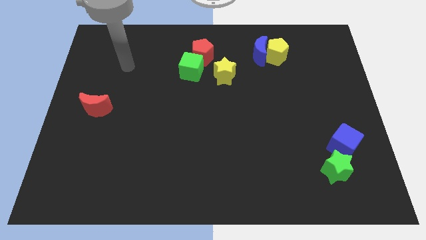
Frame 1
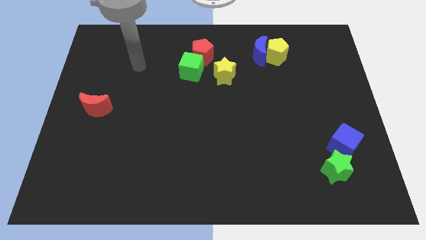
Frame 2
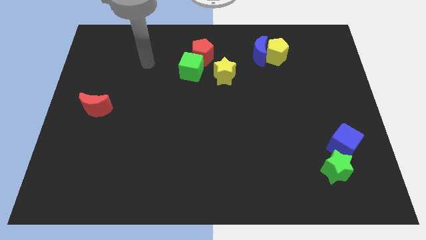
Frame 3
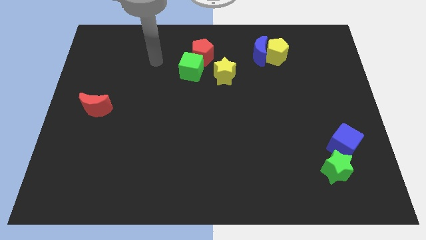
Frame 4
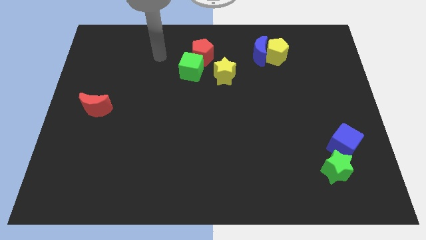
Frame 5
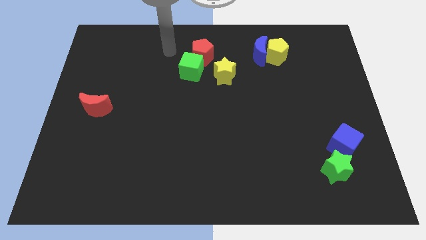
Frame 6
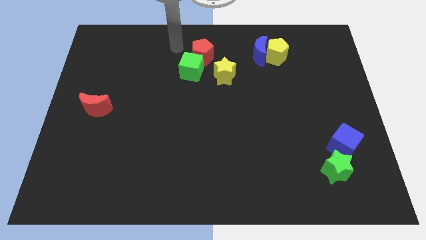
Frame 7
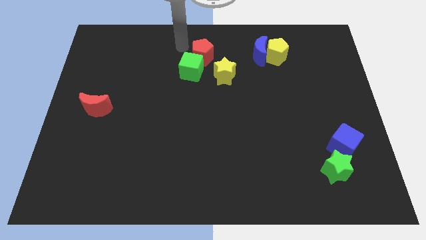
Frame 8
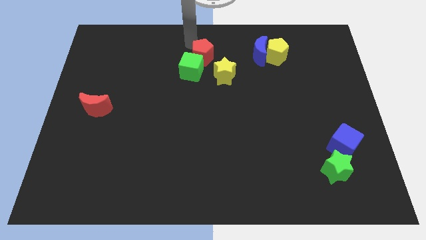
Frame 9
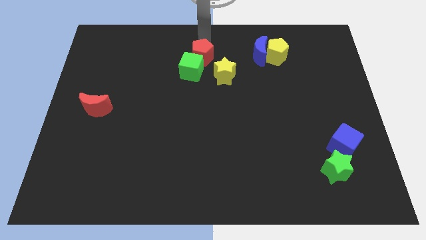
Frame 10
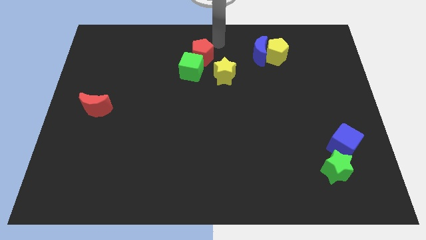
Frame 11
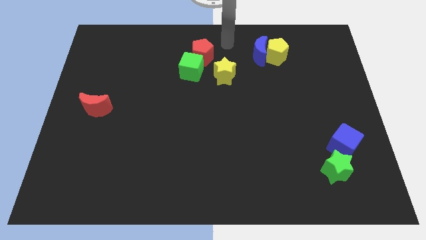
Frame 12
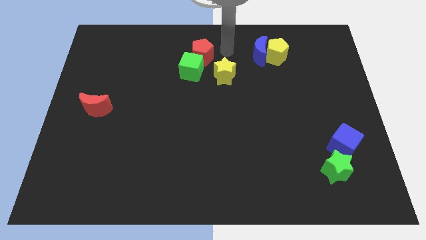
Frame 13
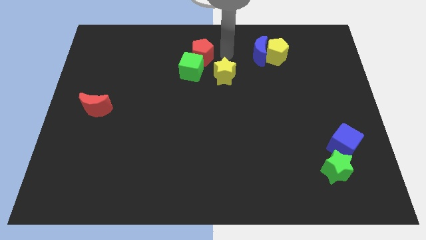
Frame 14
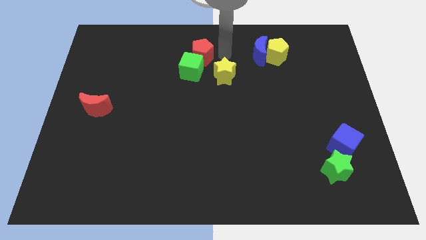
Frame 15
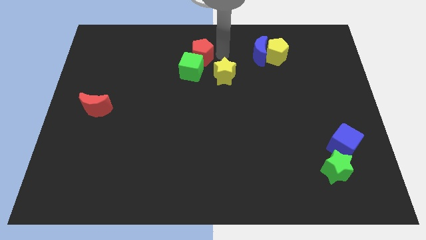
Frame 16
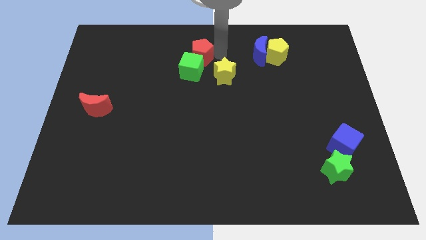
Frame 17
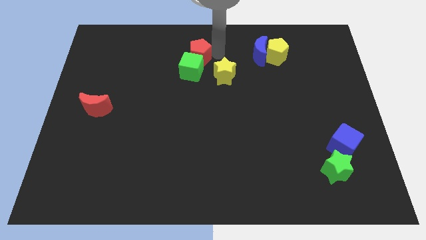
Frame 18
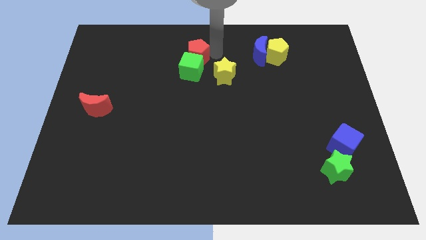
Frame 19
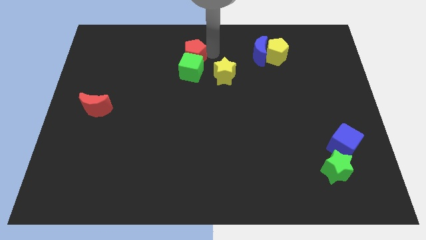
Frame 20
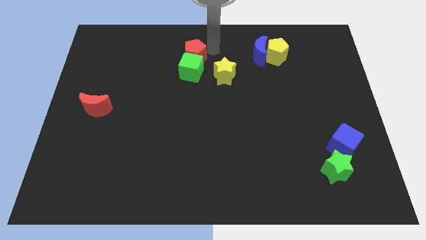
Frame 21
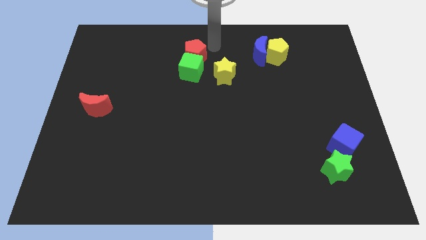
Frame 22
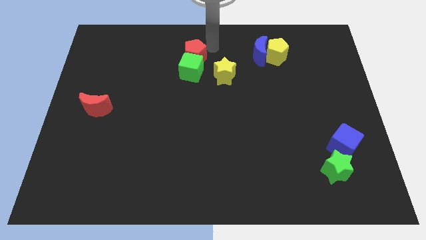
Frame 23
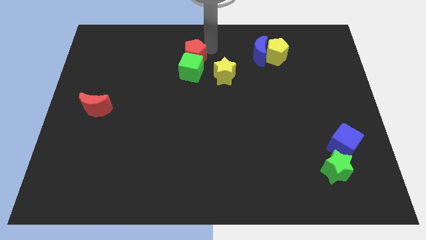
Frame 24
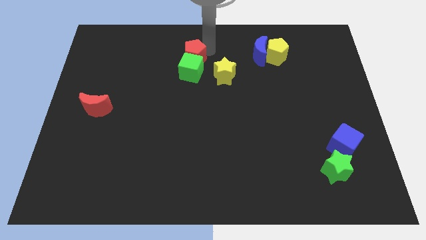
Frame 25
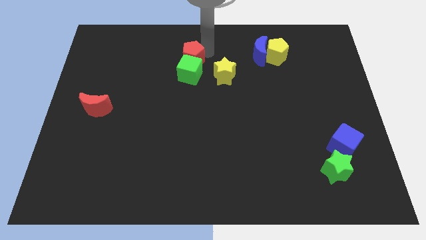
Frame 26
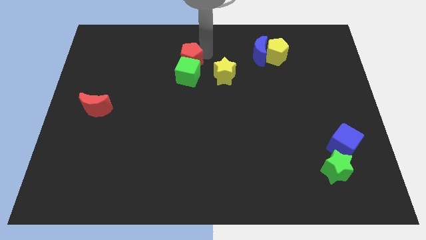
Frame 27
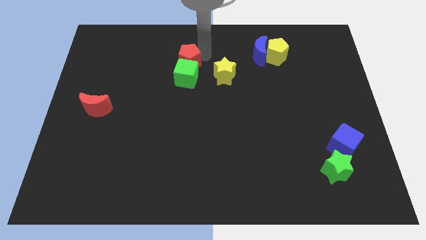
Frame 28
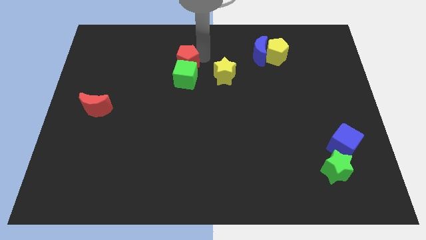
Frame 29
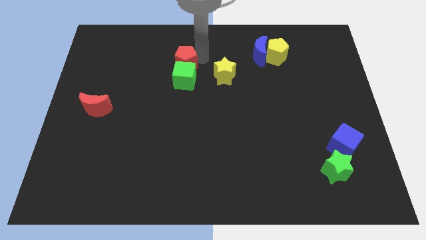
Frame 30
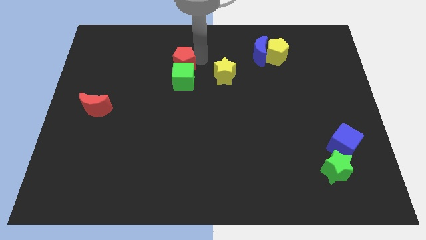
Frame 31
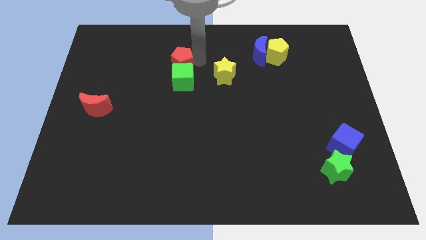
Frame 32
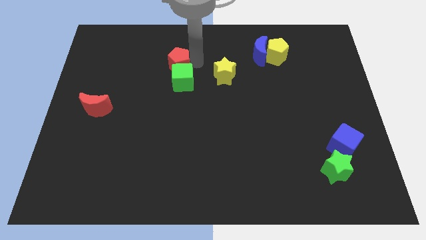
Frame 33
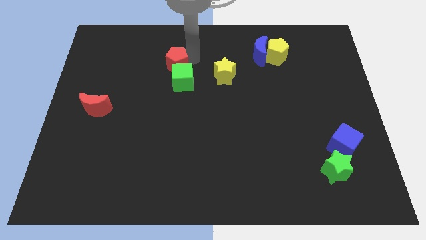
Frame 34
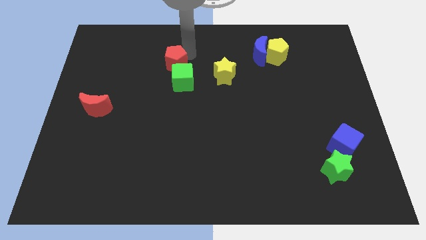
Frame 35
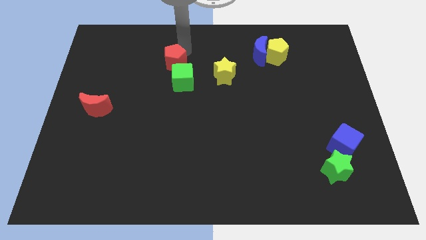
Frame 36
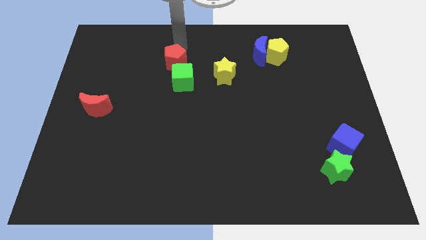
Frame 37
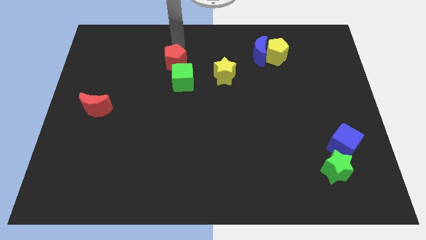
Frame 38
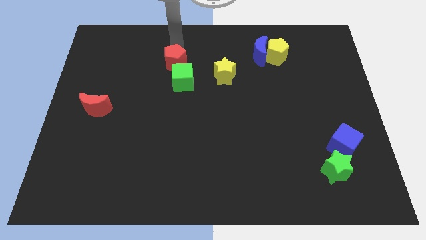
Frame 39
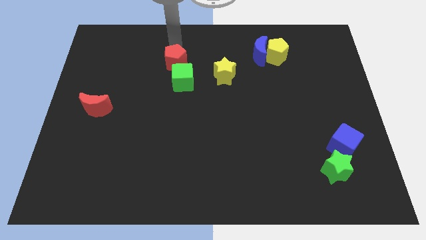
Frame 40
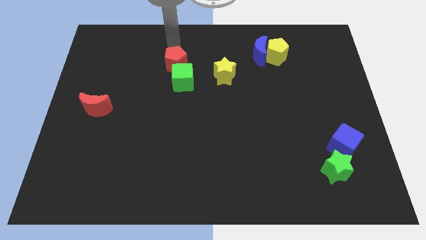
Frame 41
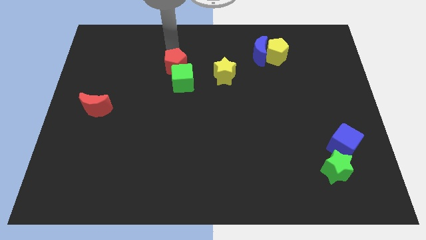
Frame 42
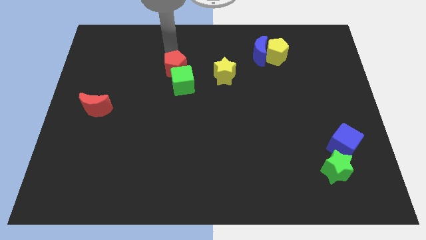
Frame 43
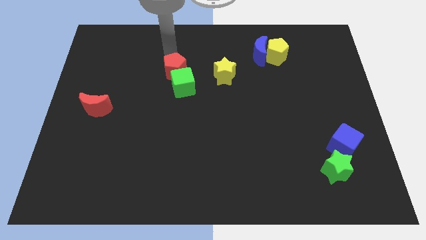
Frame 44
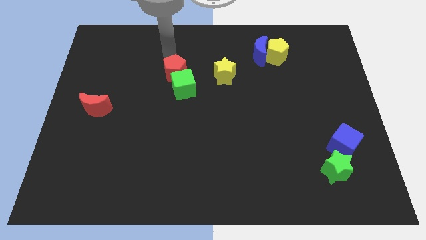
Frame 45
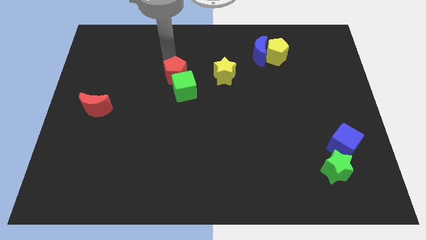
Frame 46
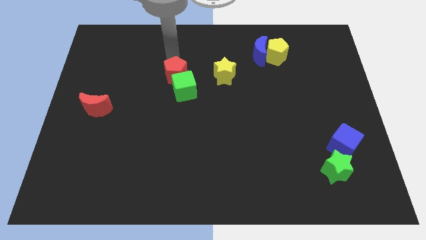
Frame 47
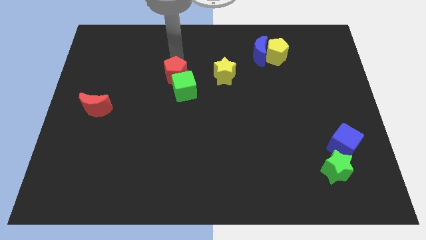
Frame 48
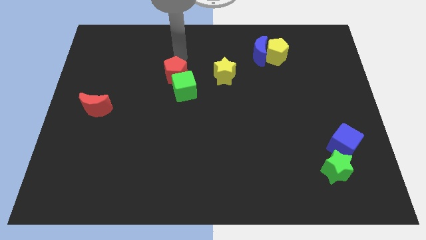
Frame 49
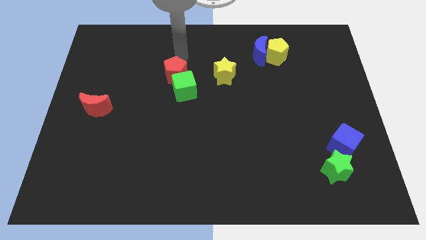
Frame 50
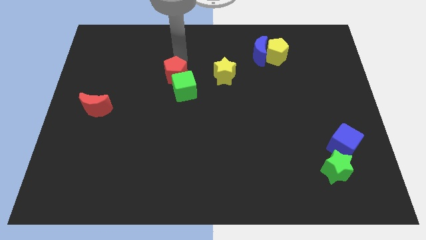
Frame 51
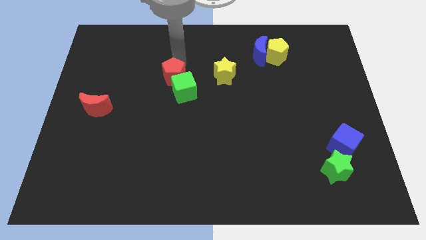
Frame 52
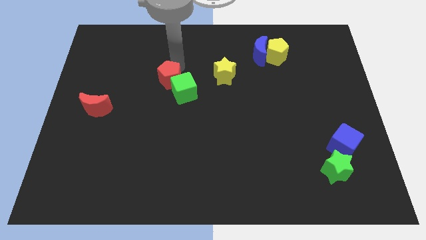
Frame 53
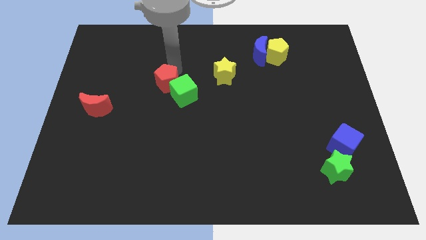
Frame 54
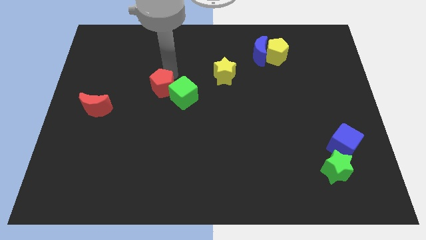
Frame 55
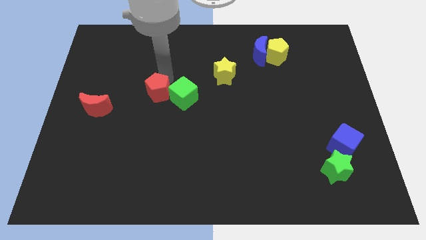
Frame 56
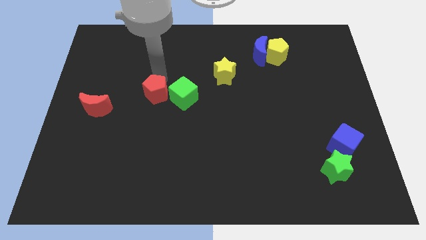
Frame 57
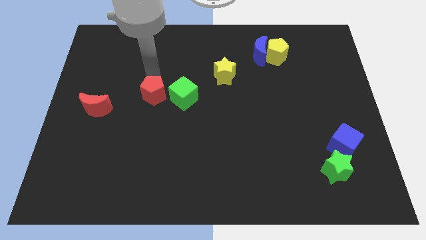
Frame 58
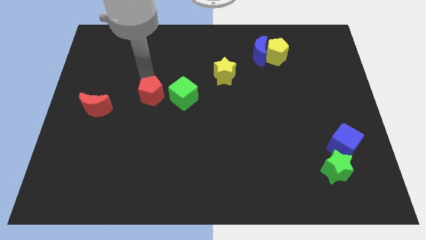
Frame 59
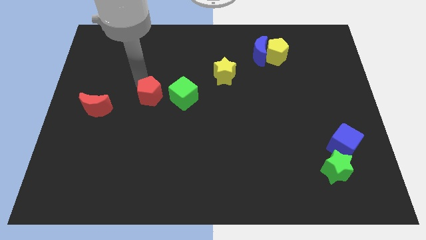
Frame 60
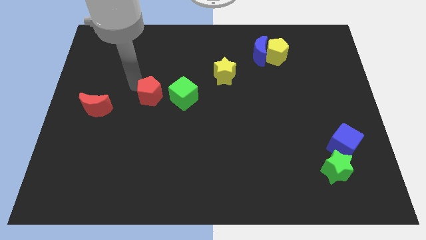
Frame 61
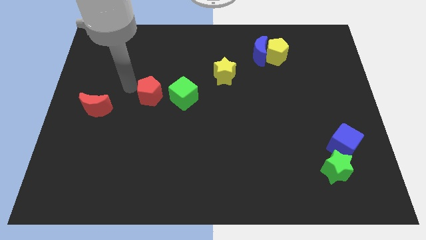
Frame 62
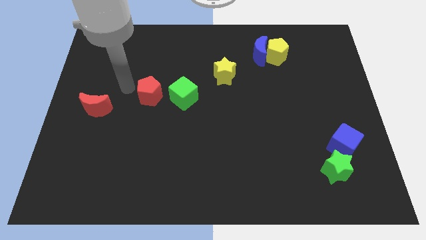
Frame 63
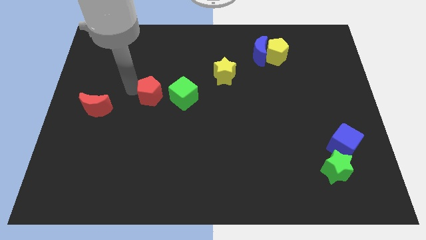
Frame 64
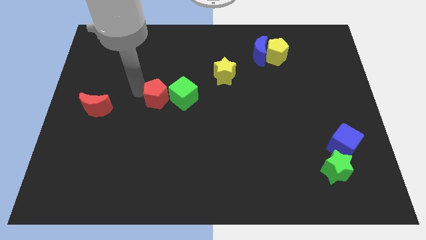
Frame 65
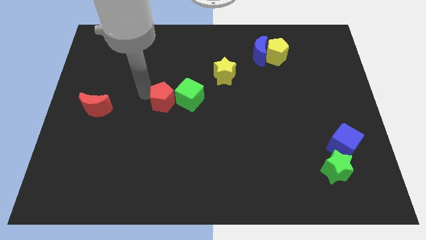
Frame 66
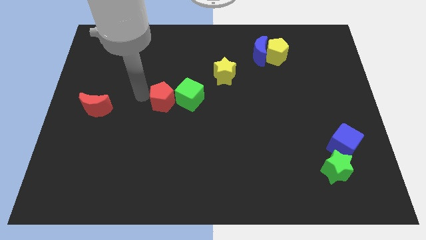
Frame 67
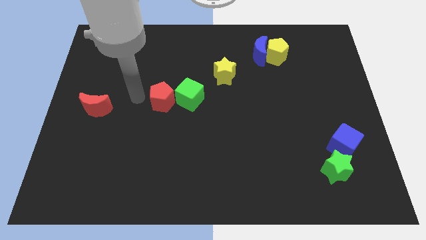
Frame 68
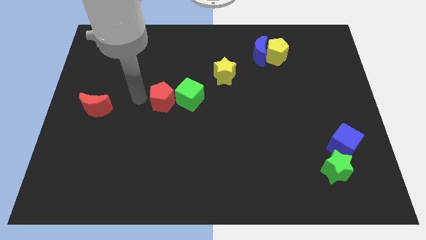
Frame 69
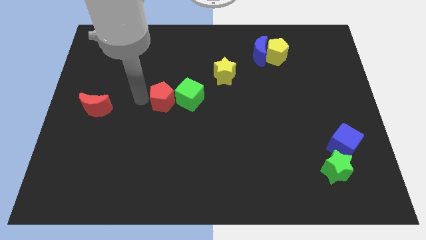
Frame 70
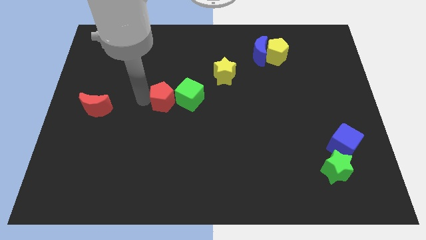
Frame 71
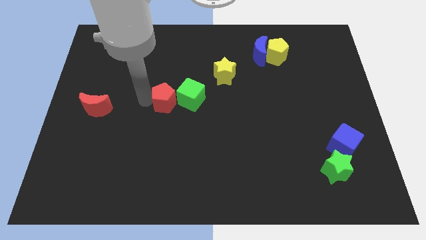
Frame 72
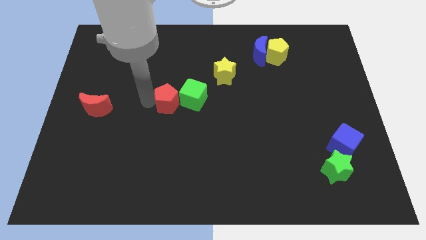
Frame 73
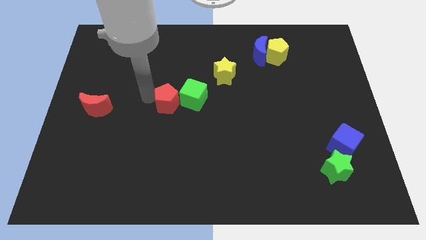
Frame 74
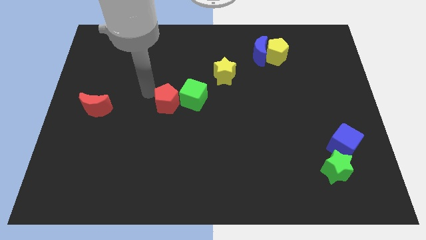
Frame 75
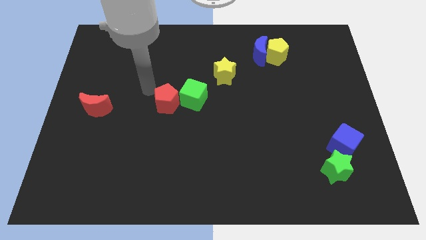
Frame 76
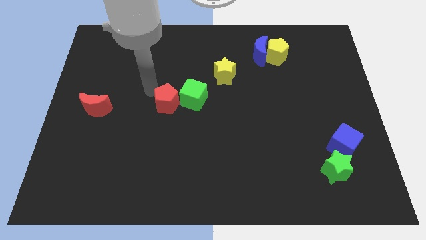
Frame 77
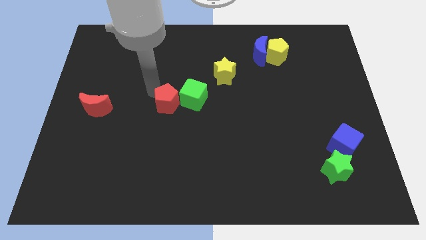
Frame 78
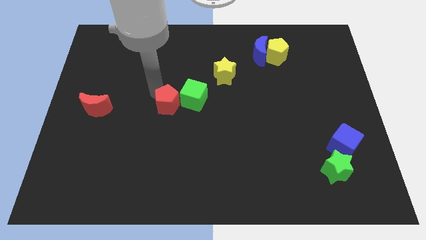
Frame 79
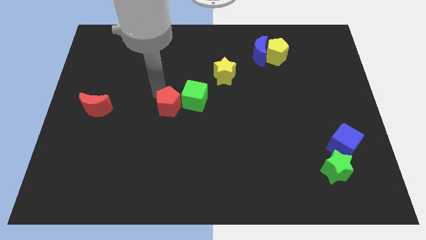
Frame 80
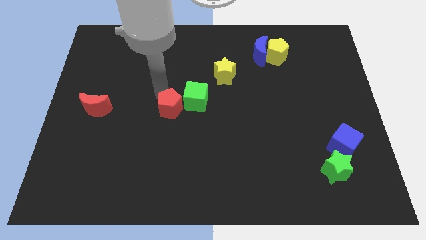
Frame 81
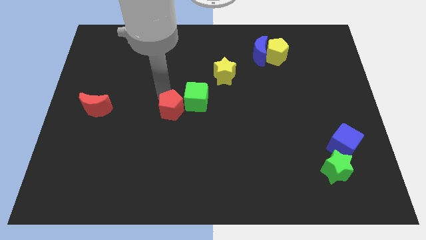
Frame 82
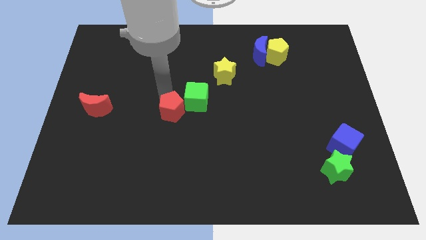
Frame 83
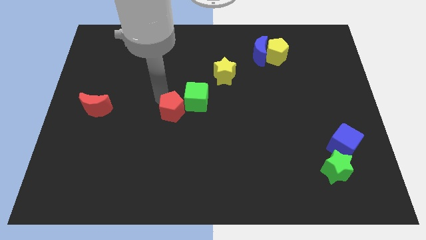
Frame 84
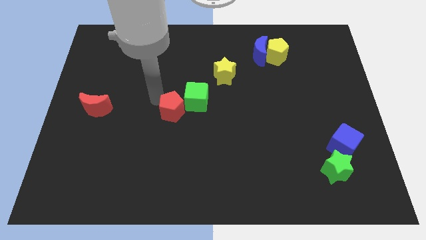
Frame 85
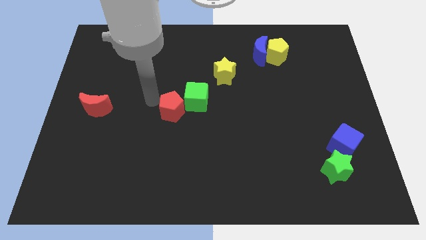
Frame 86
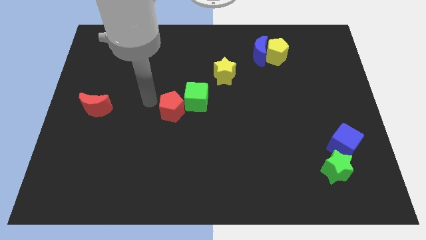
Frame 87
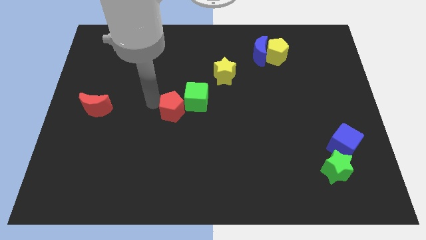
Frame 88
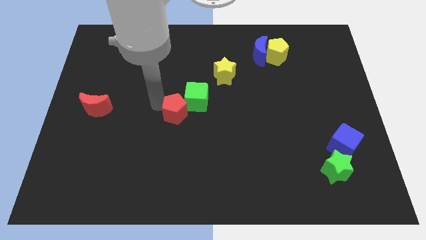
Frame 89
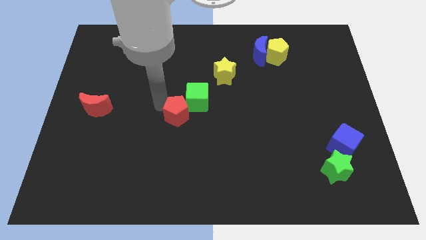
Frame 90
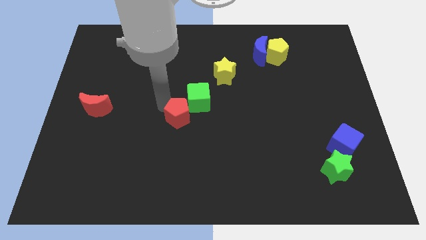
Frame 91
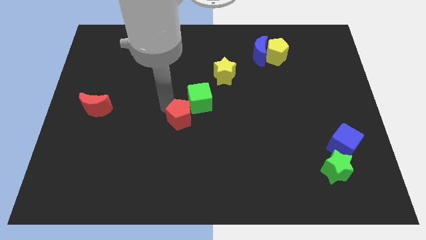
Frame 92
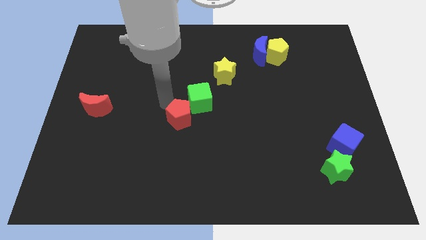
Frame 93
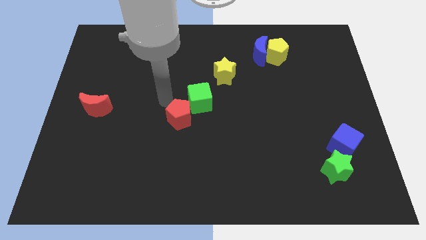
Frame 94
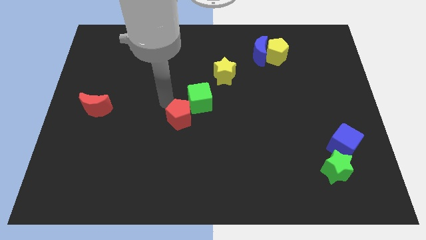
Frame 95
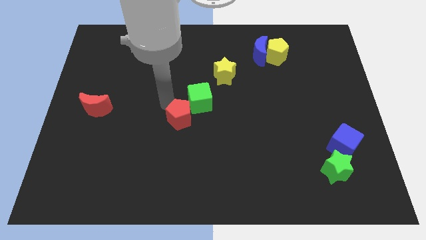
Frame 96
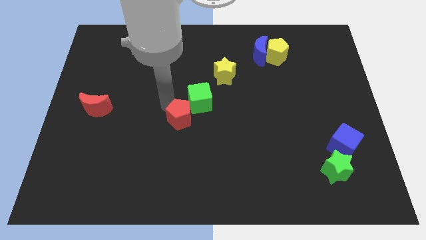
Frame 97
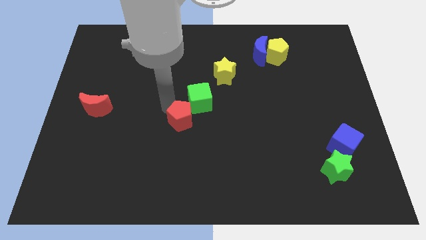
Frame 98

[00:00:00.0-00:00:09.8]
slide the red pentagon downwards
